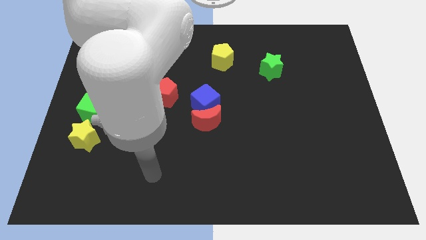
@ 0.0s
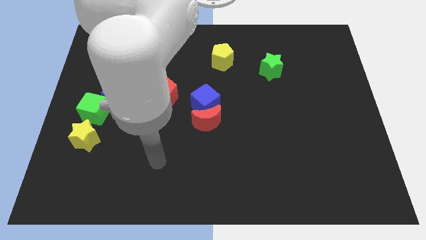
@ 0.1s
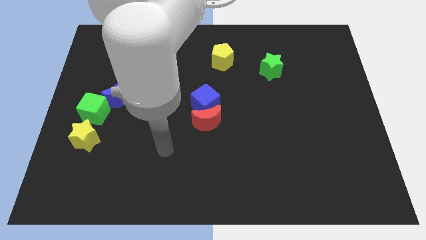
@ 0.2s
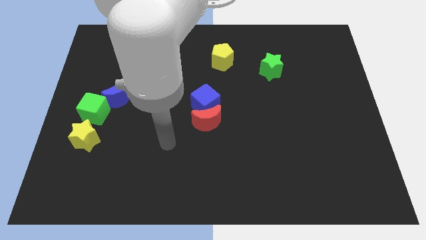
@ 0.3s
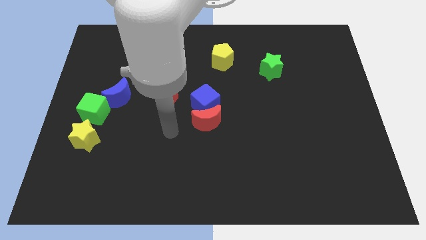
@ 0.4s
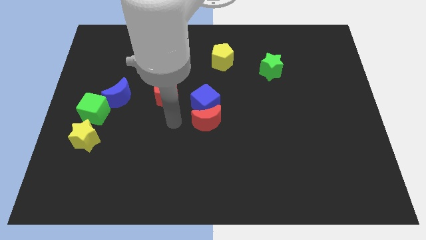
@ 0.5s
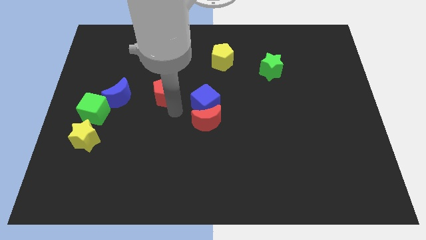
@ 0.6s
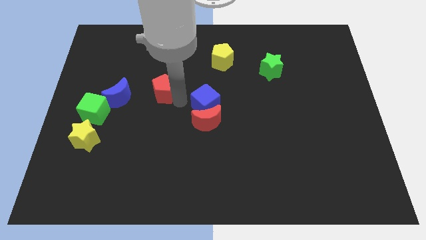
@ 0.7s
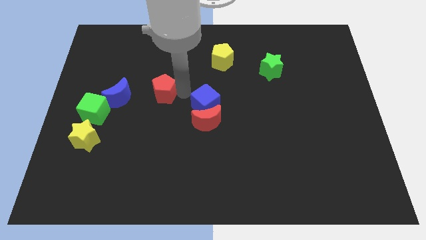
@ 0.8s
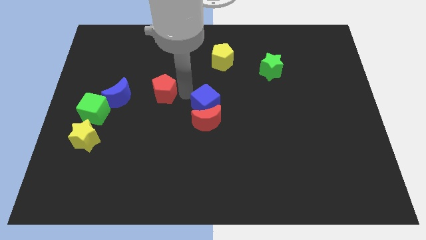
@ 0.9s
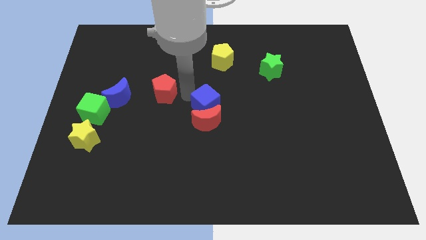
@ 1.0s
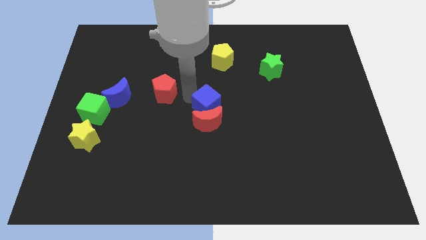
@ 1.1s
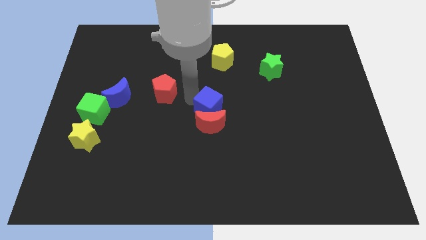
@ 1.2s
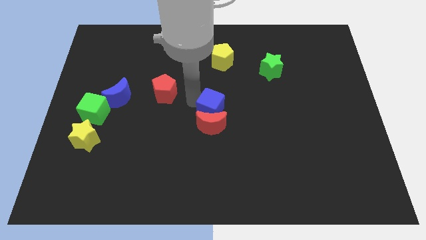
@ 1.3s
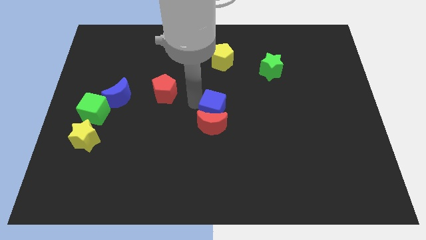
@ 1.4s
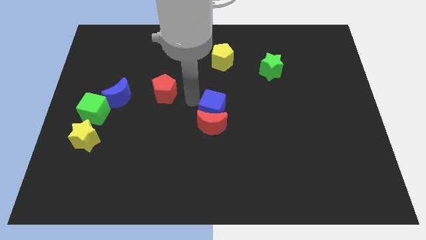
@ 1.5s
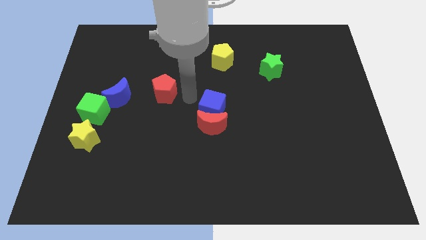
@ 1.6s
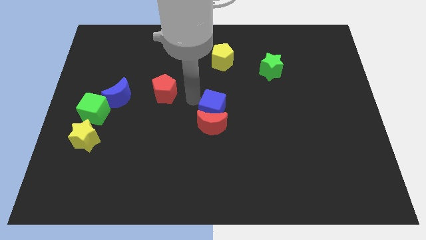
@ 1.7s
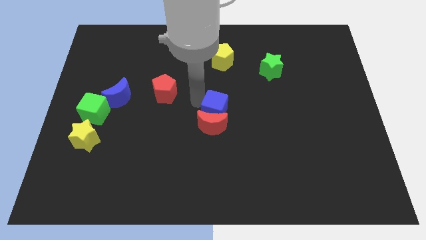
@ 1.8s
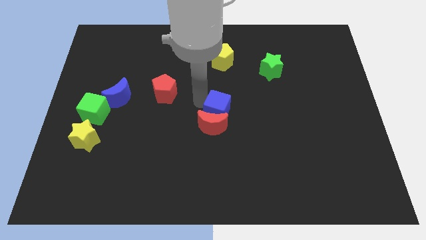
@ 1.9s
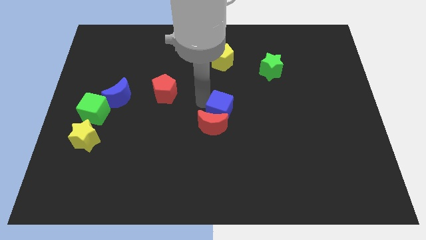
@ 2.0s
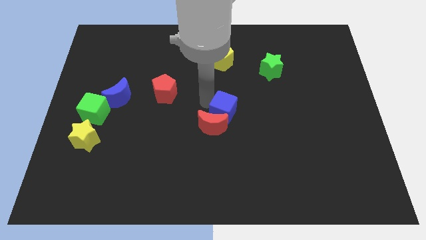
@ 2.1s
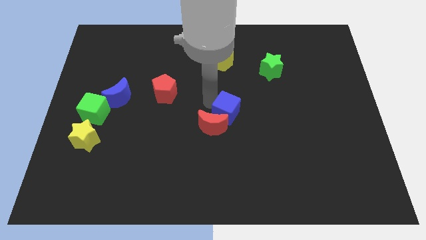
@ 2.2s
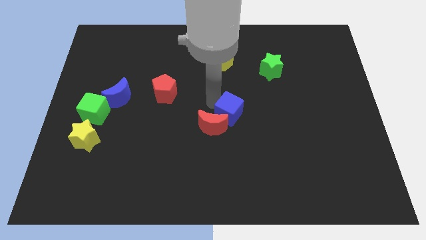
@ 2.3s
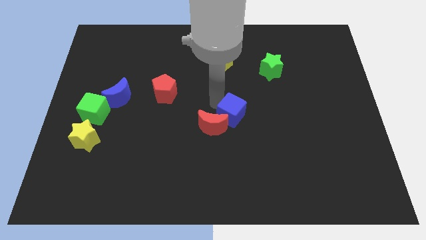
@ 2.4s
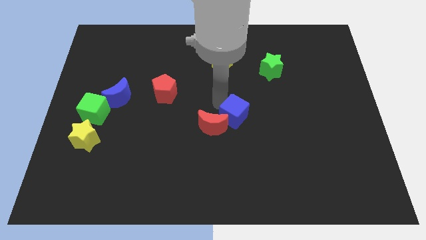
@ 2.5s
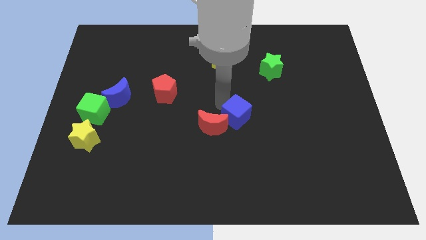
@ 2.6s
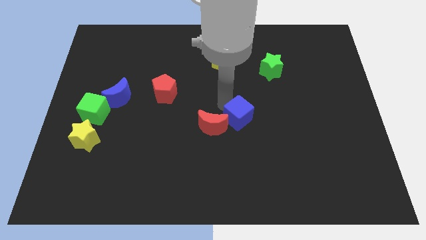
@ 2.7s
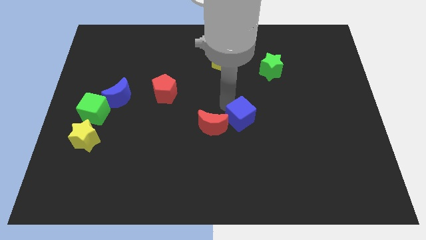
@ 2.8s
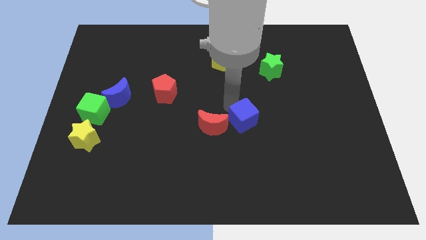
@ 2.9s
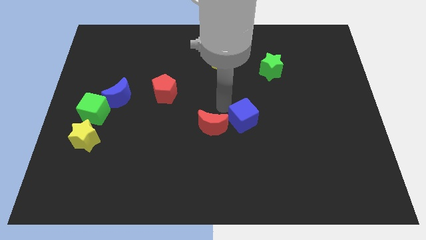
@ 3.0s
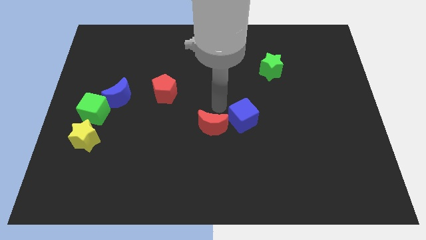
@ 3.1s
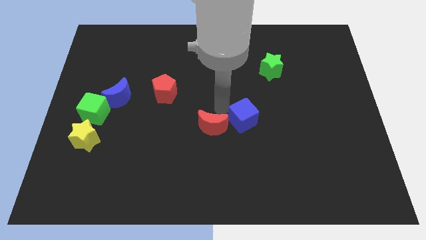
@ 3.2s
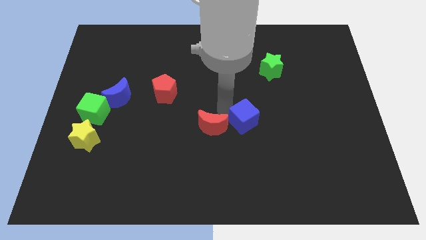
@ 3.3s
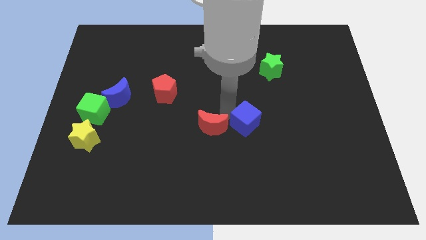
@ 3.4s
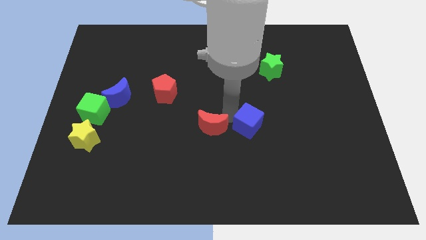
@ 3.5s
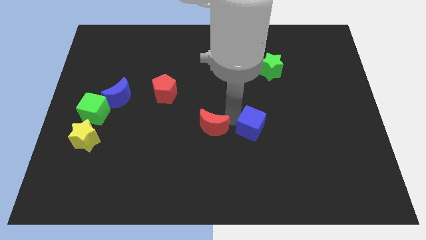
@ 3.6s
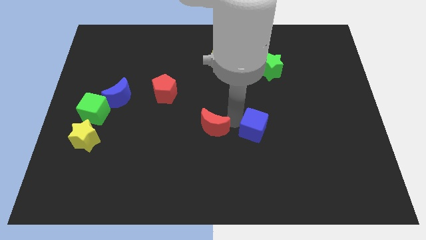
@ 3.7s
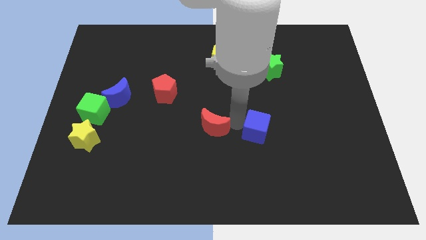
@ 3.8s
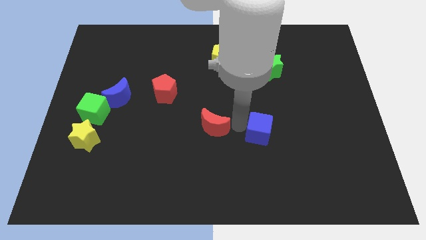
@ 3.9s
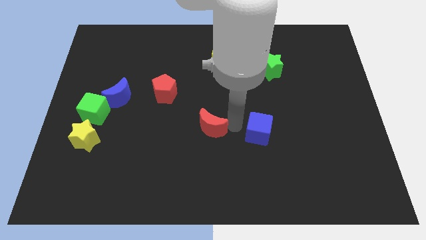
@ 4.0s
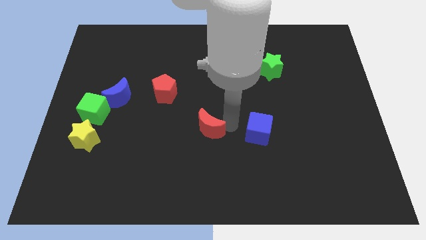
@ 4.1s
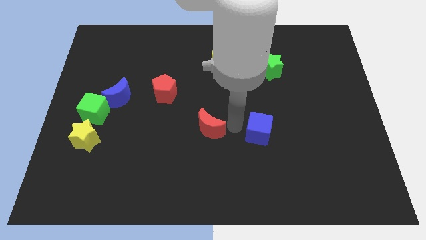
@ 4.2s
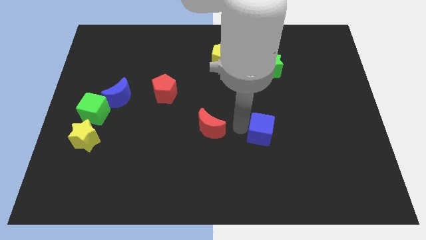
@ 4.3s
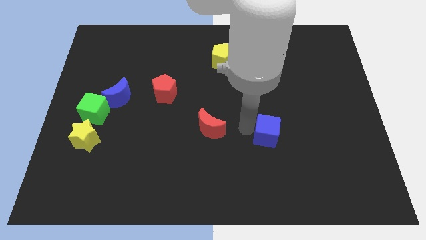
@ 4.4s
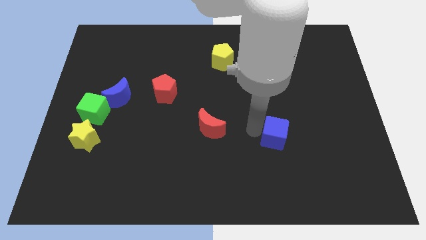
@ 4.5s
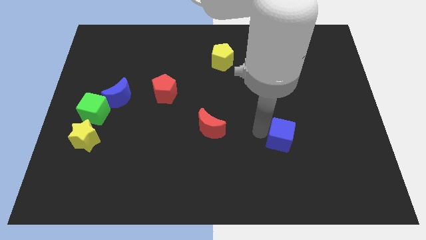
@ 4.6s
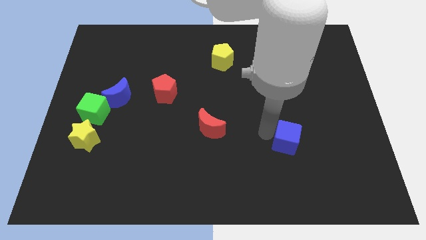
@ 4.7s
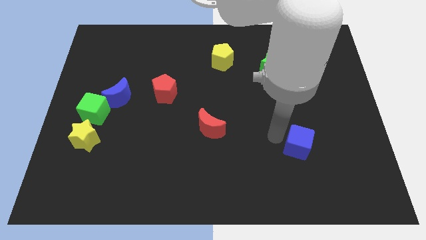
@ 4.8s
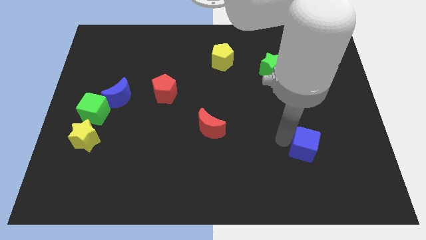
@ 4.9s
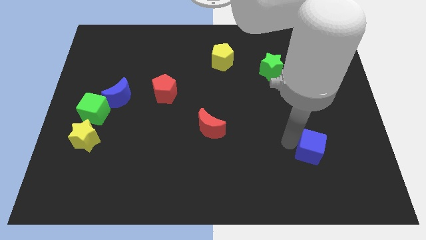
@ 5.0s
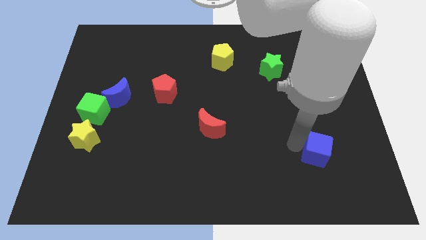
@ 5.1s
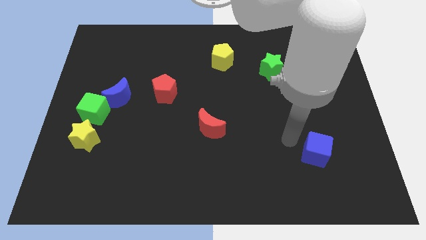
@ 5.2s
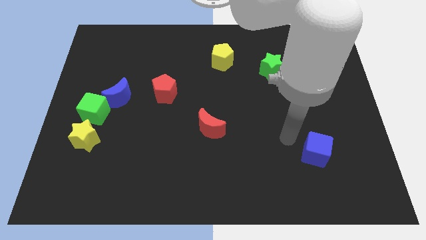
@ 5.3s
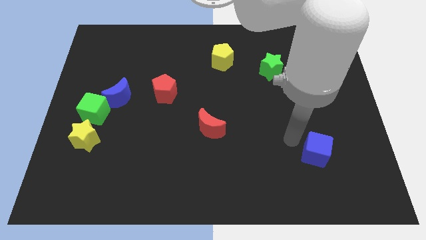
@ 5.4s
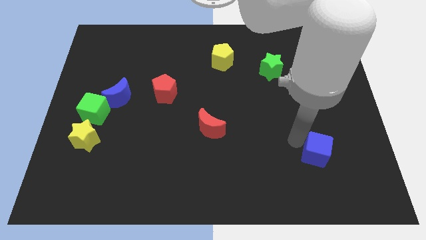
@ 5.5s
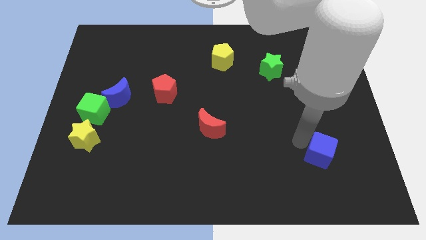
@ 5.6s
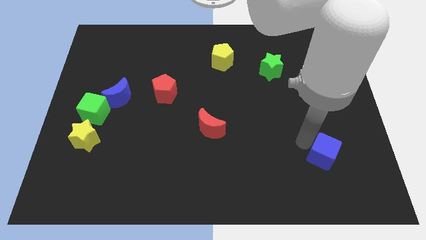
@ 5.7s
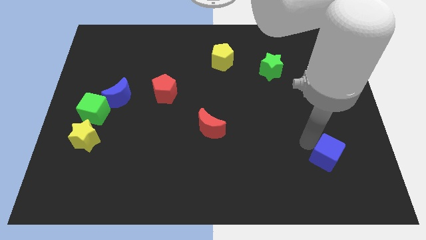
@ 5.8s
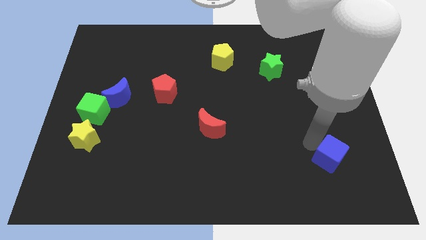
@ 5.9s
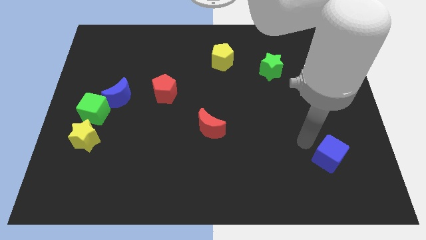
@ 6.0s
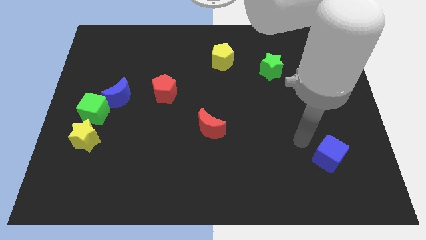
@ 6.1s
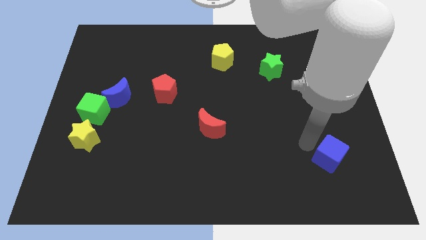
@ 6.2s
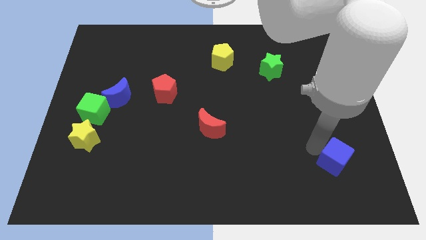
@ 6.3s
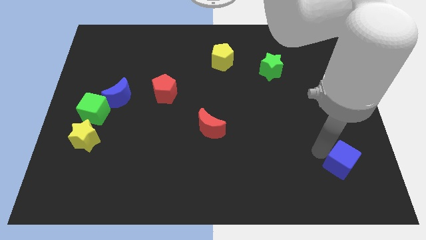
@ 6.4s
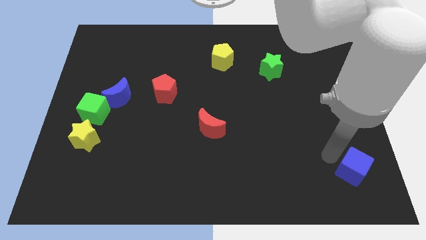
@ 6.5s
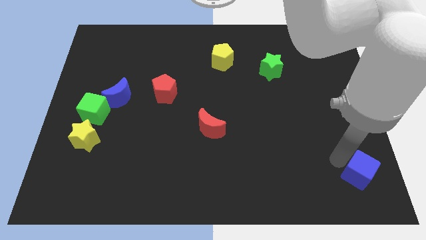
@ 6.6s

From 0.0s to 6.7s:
put the blue cube to the lower right corner
